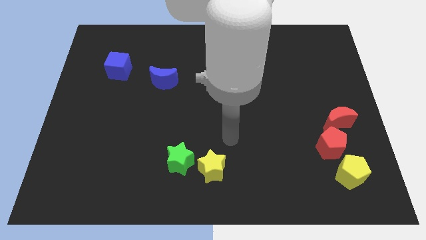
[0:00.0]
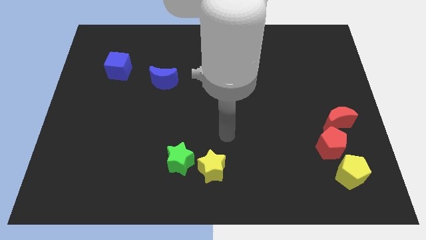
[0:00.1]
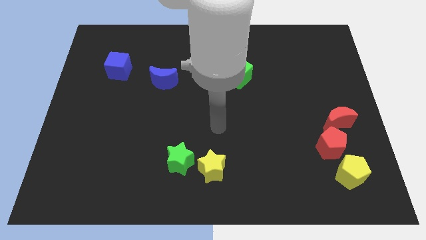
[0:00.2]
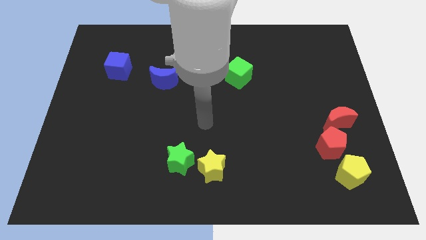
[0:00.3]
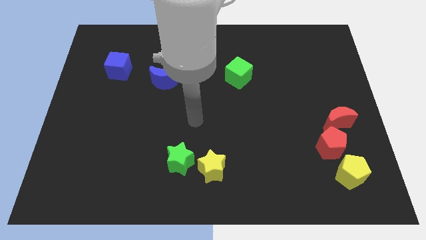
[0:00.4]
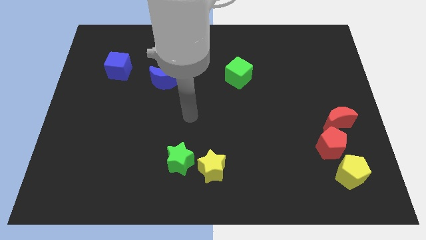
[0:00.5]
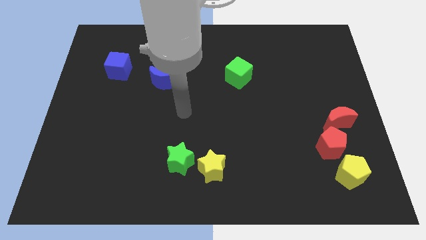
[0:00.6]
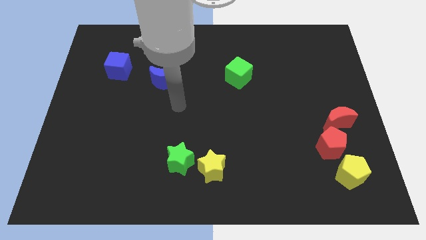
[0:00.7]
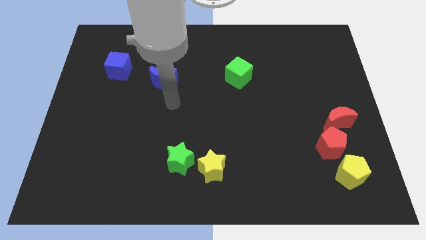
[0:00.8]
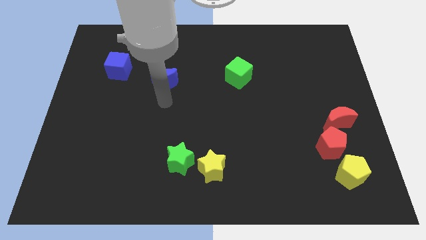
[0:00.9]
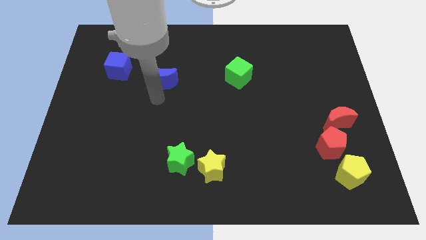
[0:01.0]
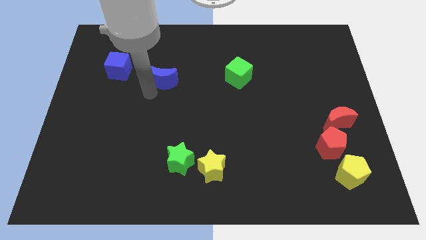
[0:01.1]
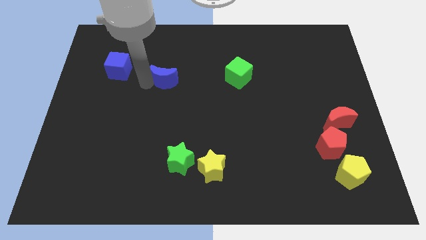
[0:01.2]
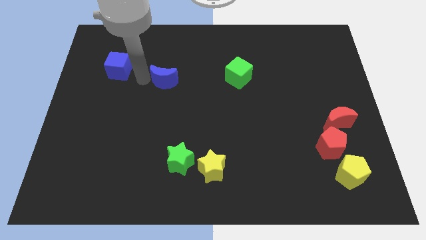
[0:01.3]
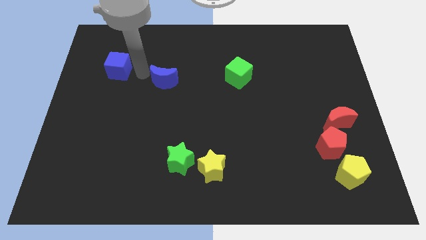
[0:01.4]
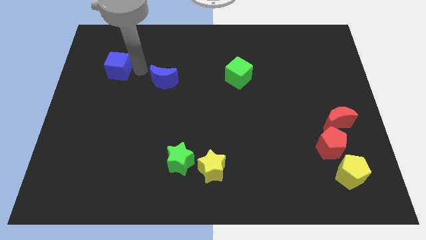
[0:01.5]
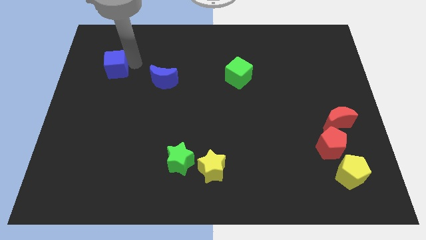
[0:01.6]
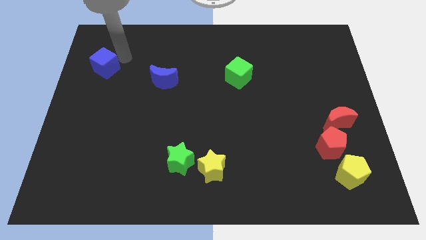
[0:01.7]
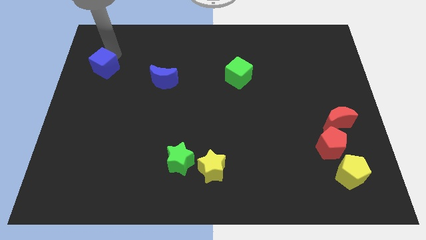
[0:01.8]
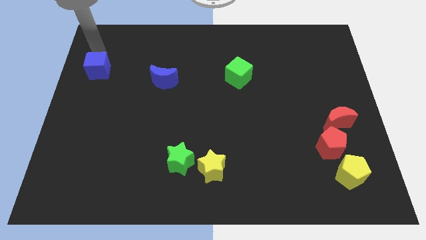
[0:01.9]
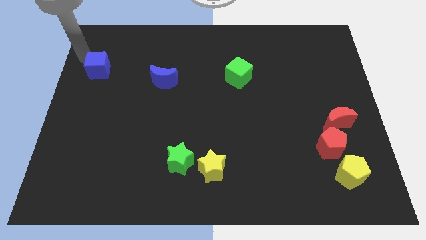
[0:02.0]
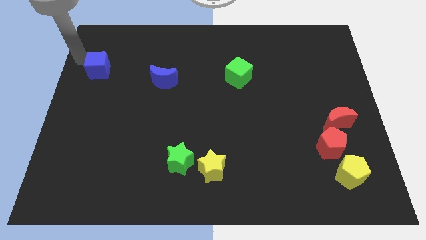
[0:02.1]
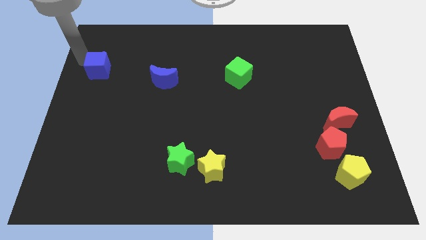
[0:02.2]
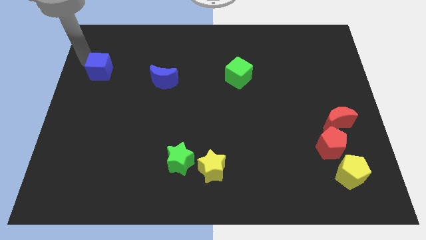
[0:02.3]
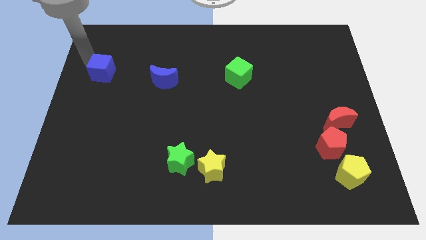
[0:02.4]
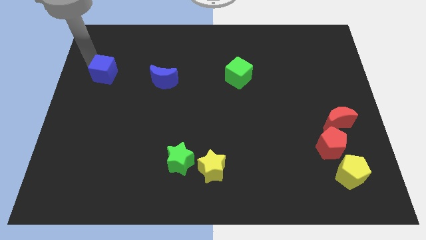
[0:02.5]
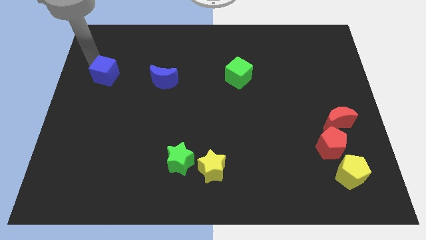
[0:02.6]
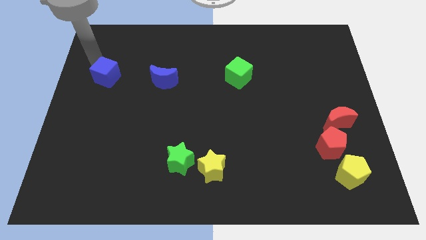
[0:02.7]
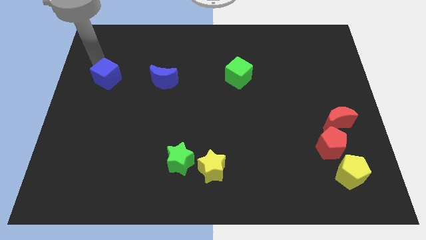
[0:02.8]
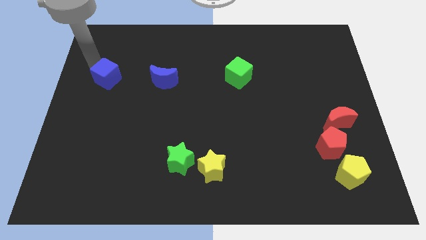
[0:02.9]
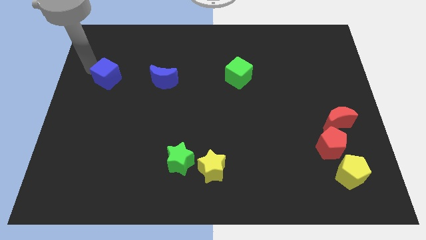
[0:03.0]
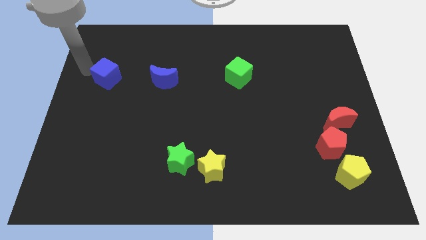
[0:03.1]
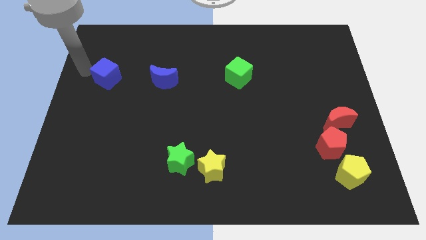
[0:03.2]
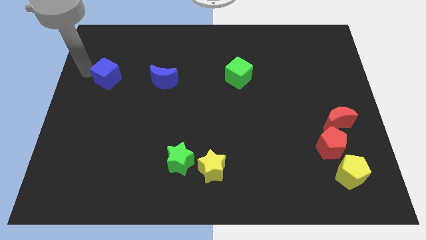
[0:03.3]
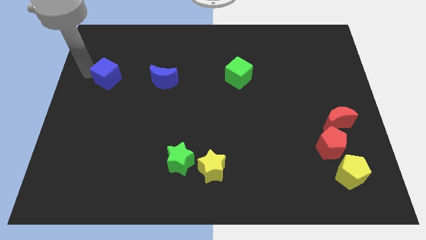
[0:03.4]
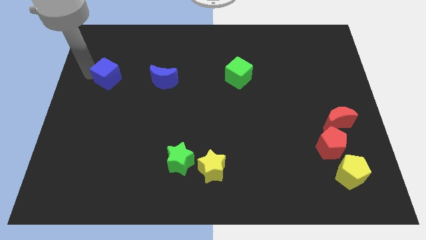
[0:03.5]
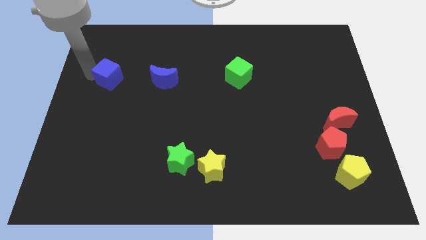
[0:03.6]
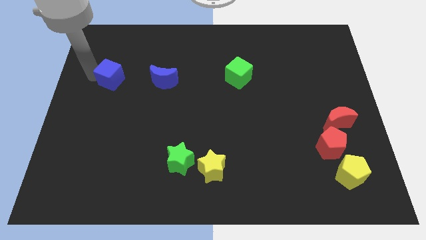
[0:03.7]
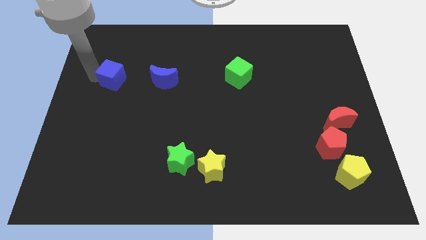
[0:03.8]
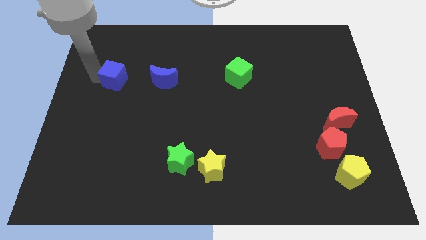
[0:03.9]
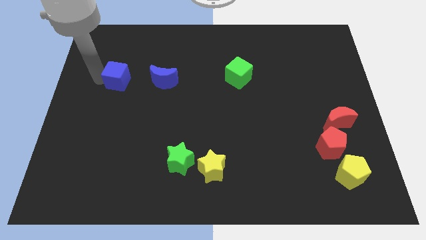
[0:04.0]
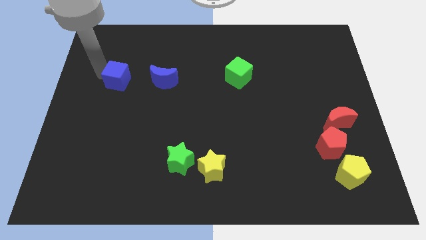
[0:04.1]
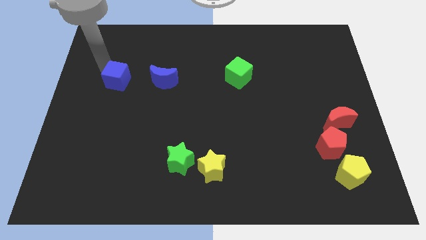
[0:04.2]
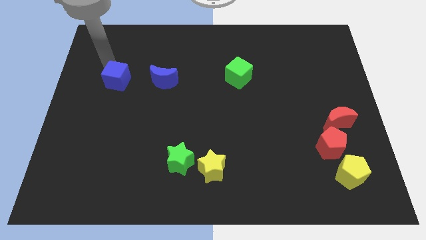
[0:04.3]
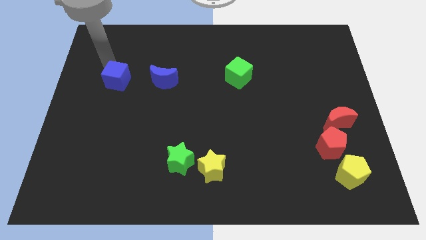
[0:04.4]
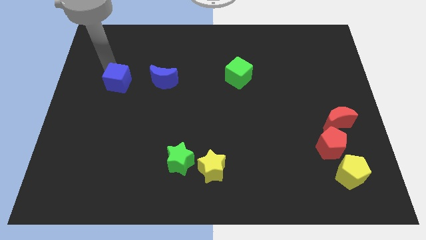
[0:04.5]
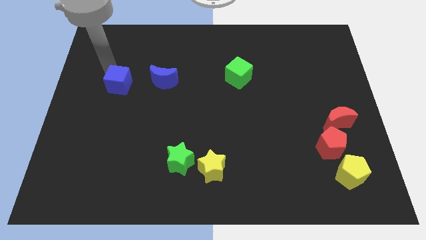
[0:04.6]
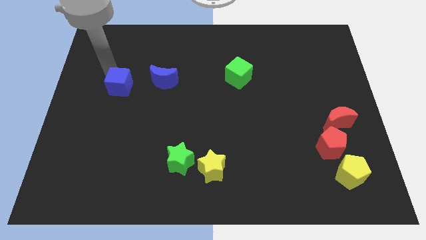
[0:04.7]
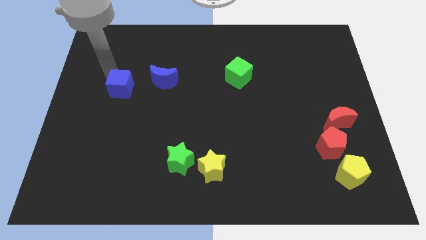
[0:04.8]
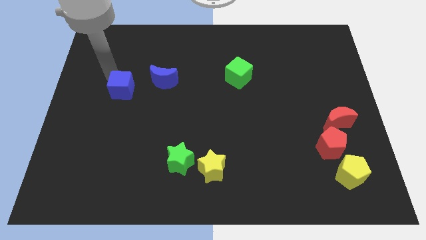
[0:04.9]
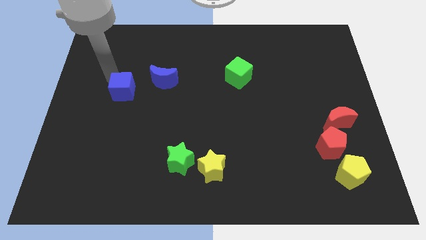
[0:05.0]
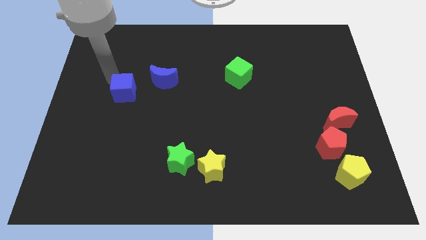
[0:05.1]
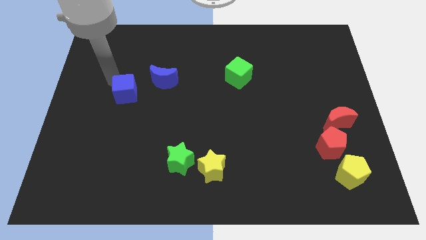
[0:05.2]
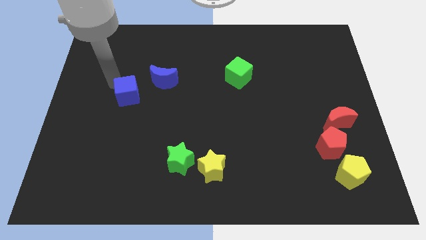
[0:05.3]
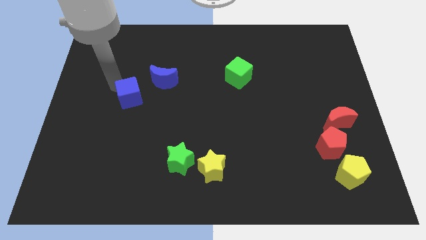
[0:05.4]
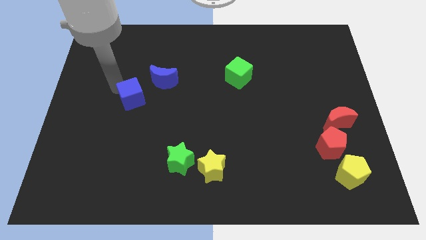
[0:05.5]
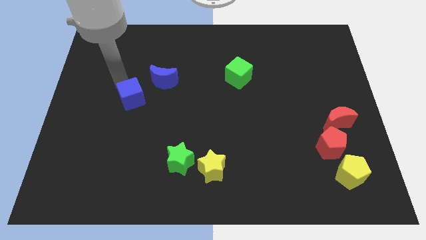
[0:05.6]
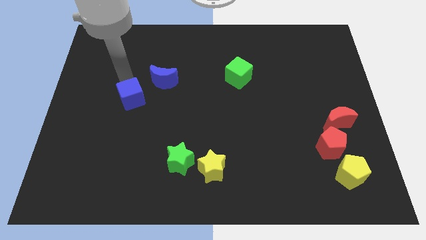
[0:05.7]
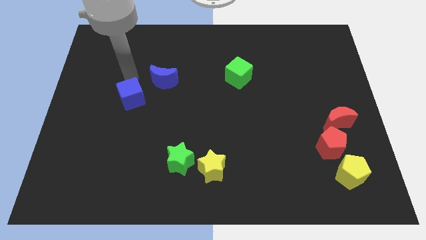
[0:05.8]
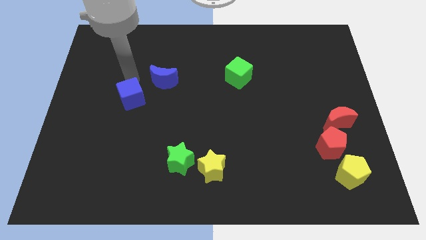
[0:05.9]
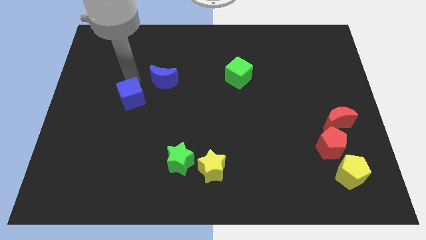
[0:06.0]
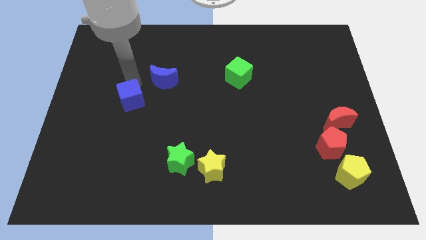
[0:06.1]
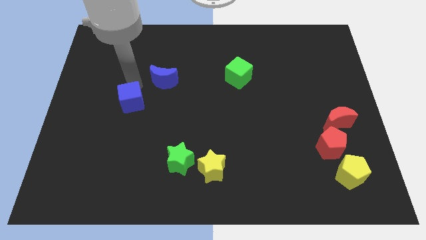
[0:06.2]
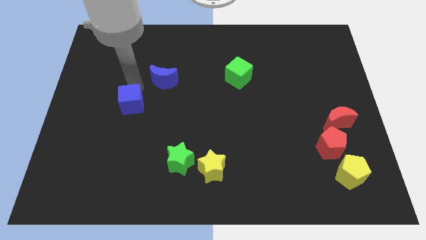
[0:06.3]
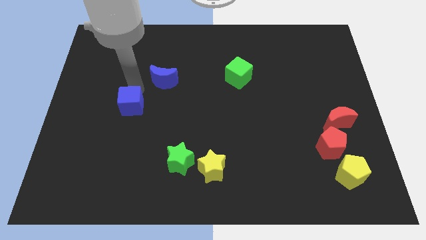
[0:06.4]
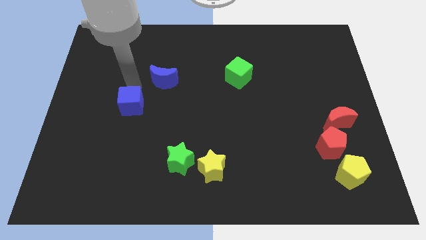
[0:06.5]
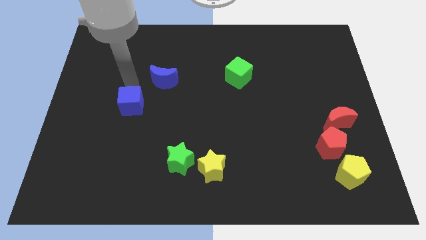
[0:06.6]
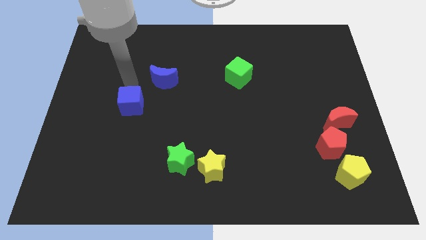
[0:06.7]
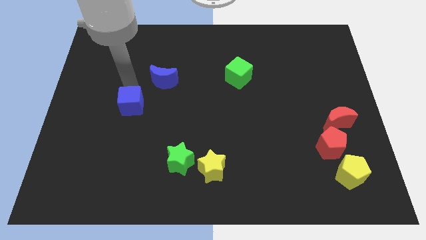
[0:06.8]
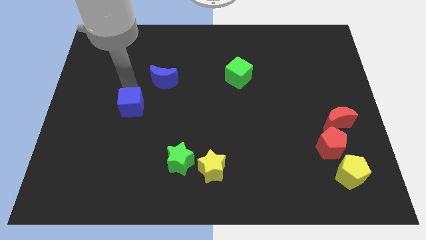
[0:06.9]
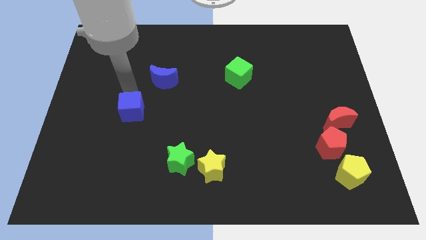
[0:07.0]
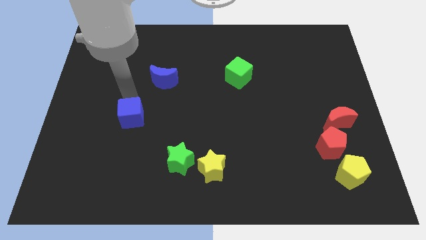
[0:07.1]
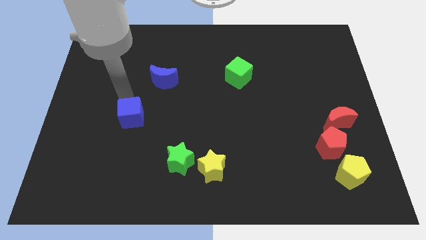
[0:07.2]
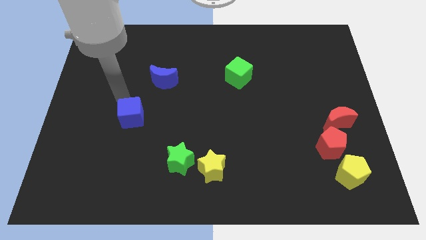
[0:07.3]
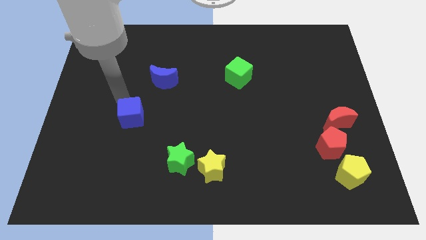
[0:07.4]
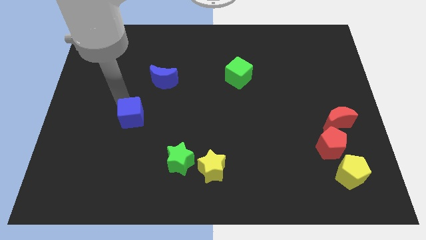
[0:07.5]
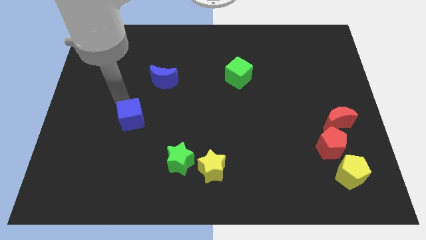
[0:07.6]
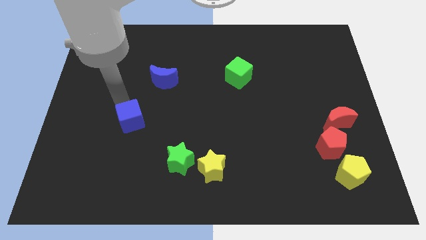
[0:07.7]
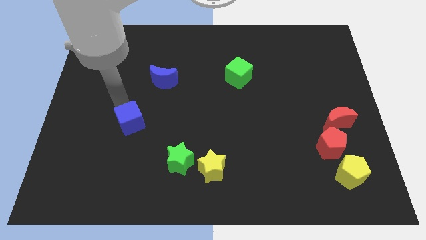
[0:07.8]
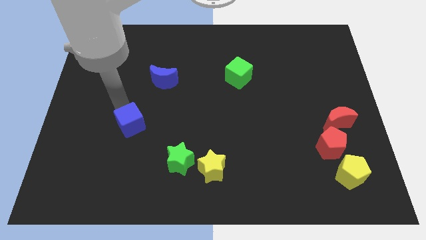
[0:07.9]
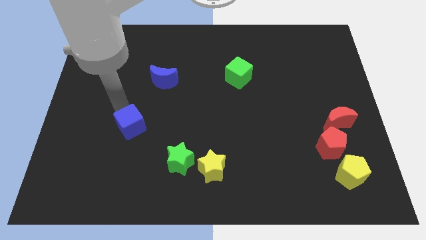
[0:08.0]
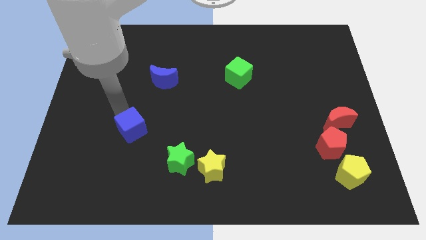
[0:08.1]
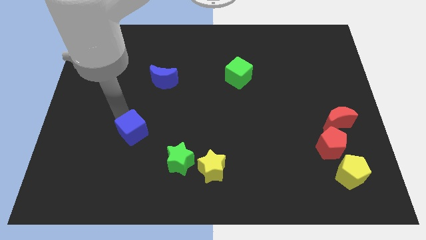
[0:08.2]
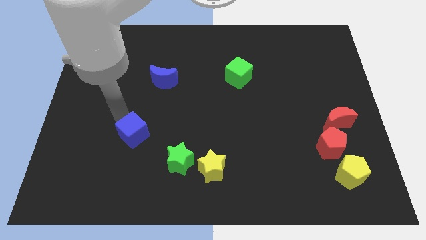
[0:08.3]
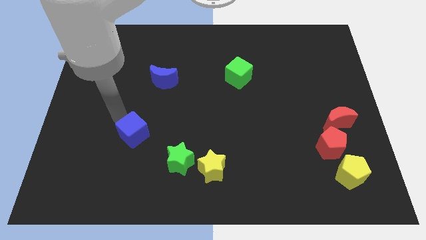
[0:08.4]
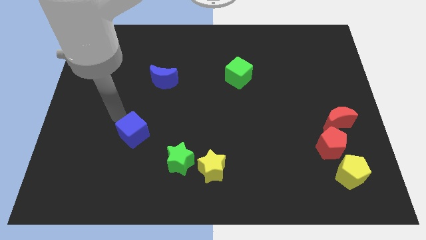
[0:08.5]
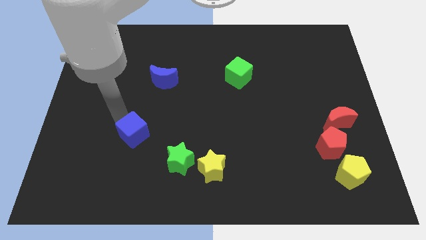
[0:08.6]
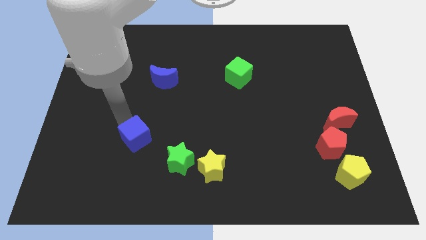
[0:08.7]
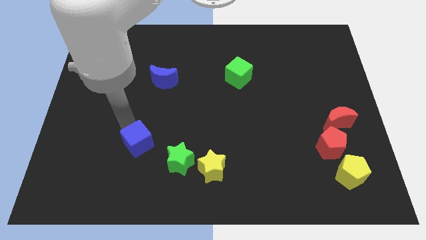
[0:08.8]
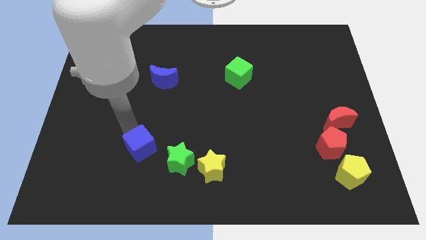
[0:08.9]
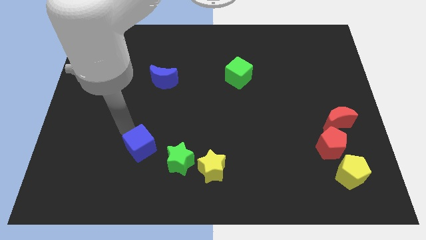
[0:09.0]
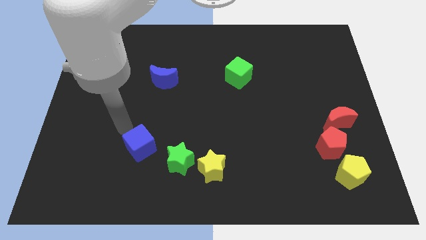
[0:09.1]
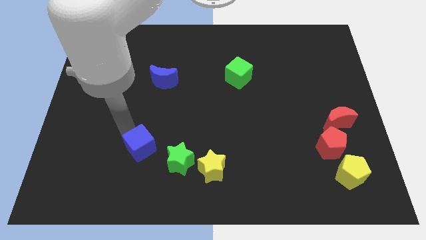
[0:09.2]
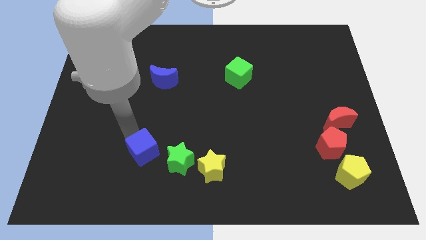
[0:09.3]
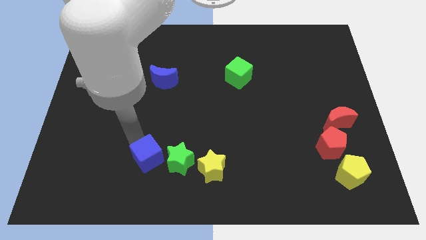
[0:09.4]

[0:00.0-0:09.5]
slide the blue cube left of the yellow star
